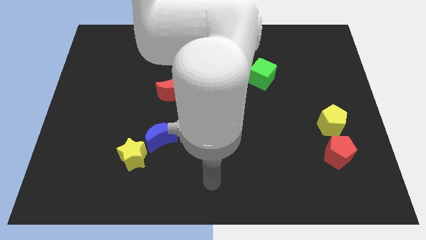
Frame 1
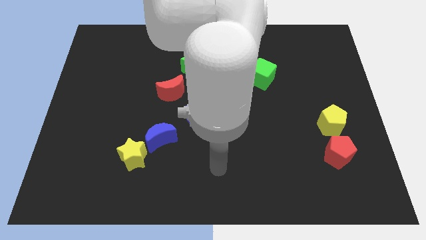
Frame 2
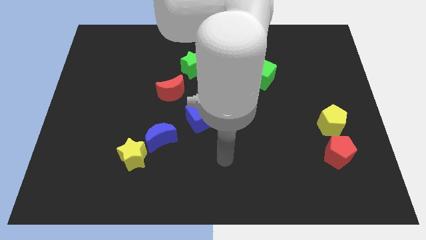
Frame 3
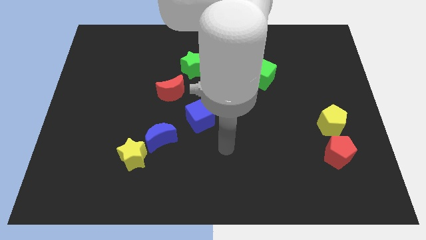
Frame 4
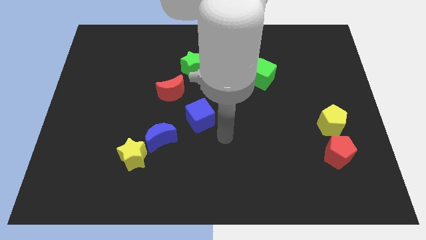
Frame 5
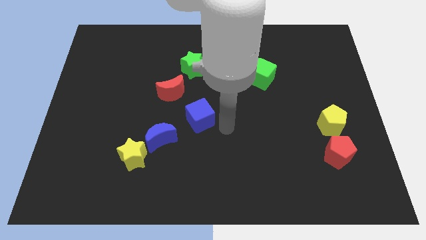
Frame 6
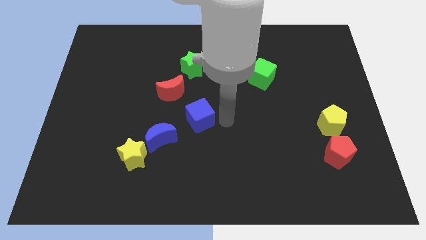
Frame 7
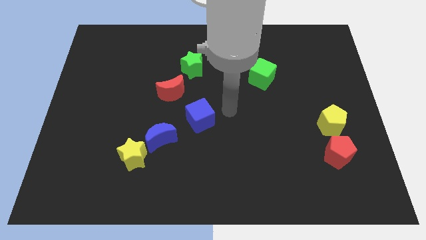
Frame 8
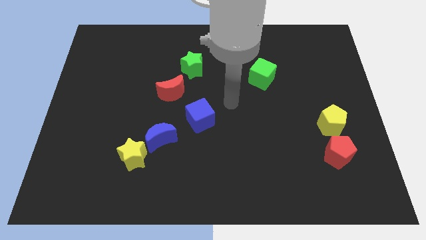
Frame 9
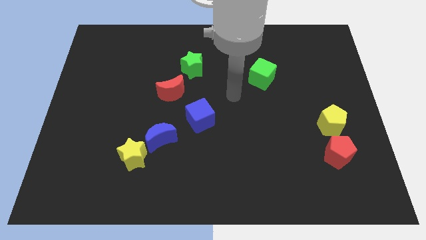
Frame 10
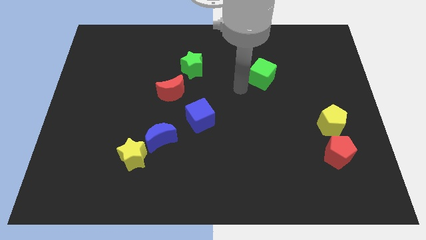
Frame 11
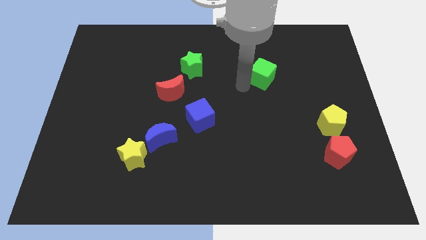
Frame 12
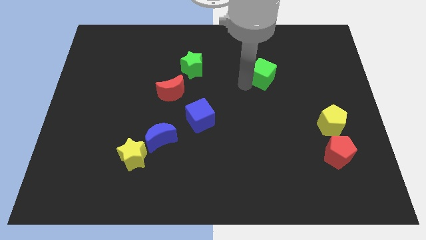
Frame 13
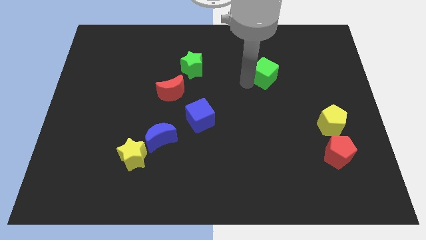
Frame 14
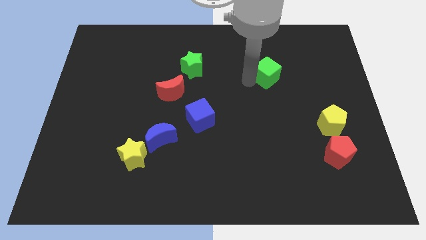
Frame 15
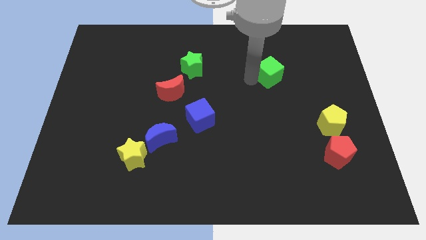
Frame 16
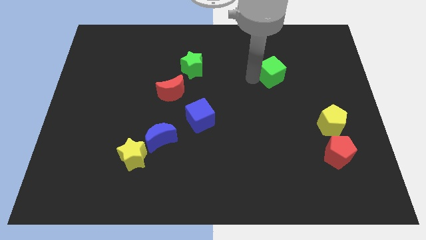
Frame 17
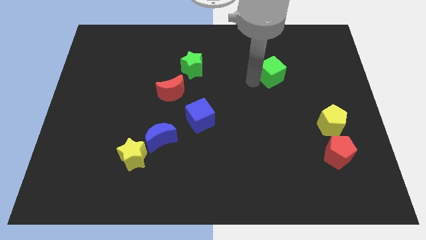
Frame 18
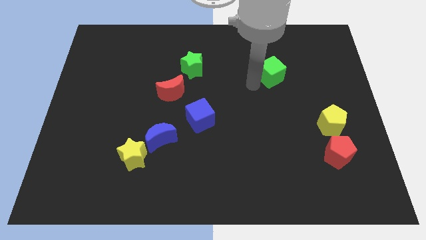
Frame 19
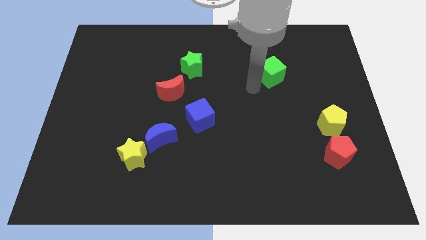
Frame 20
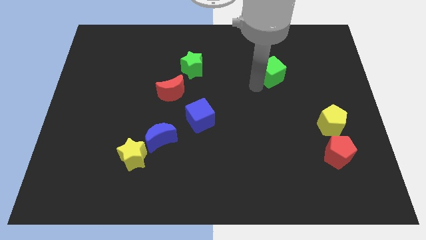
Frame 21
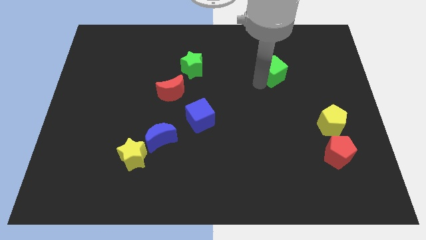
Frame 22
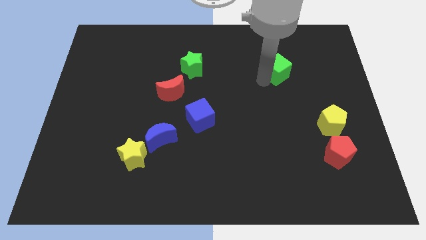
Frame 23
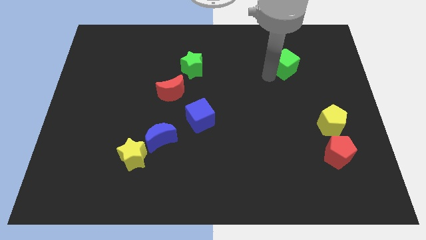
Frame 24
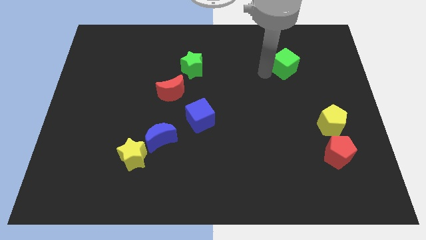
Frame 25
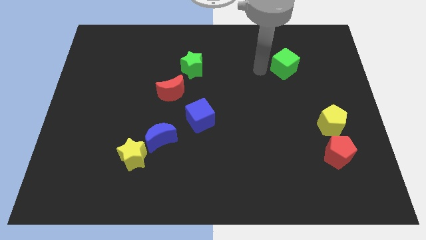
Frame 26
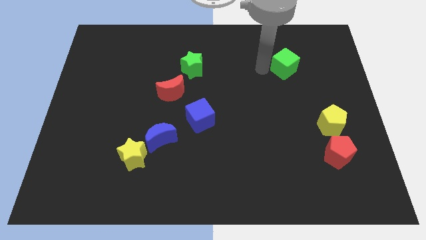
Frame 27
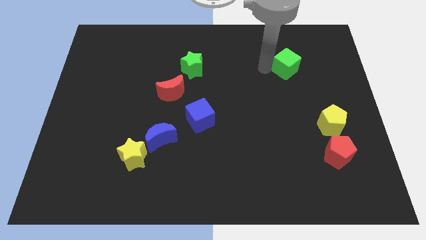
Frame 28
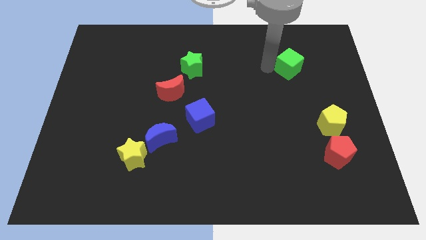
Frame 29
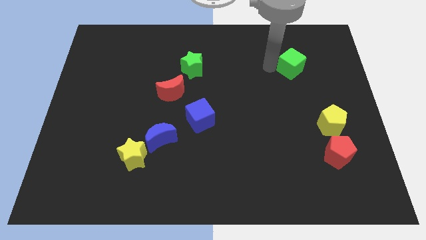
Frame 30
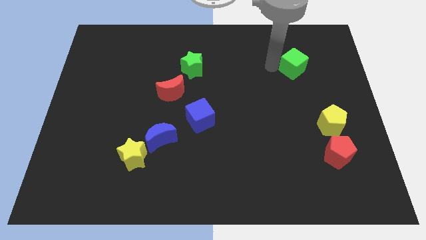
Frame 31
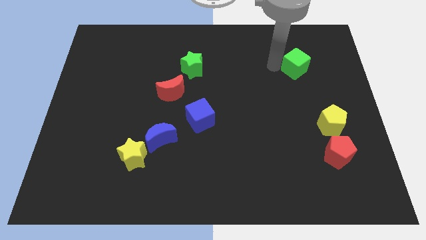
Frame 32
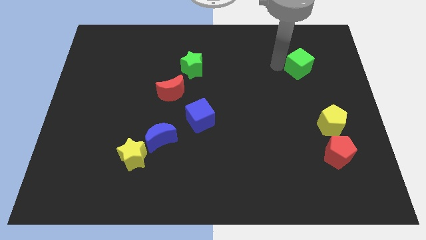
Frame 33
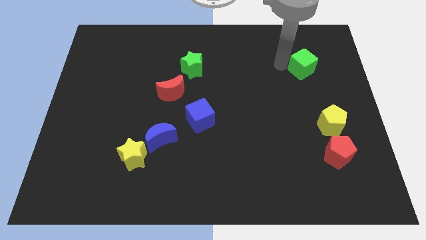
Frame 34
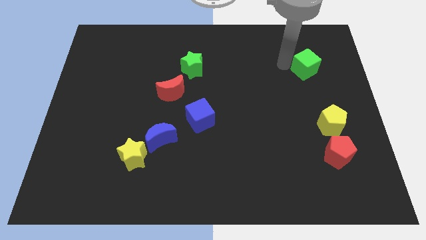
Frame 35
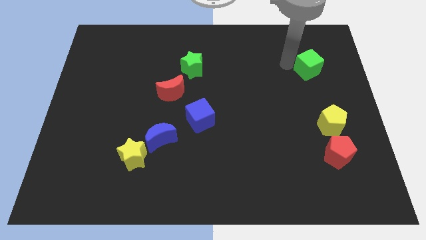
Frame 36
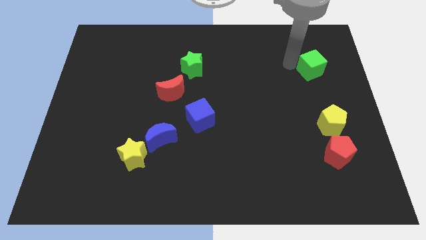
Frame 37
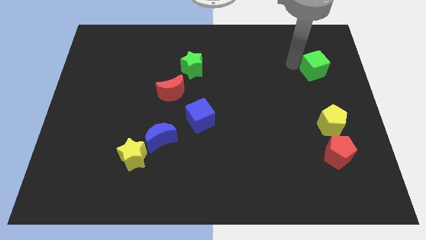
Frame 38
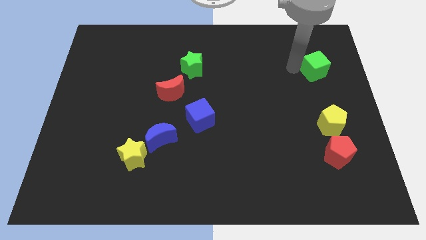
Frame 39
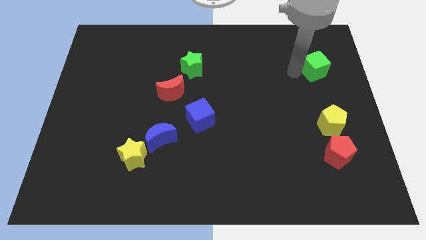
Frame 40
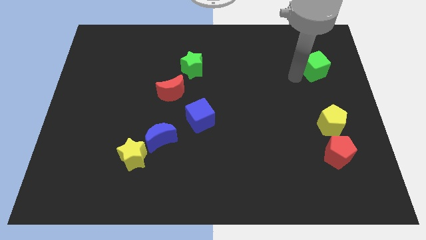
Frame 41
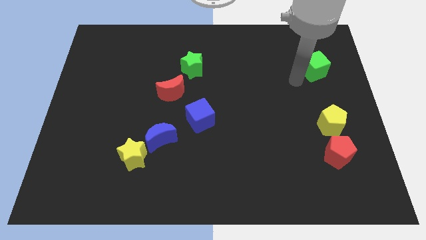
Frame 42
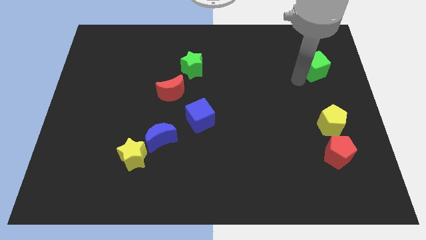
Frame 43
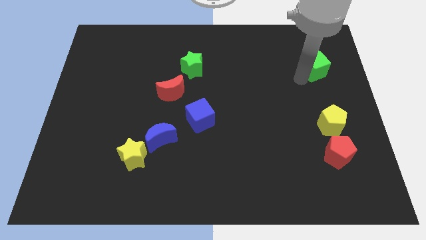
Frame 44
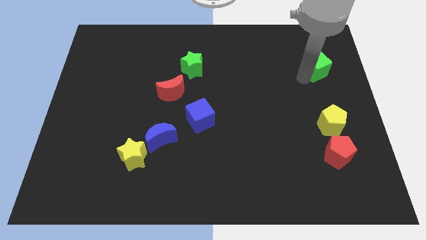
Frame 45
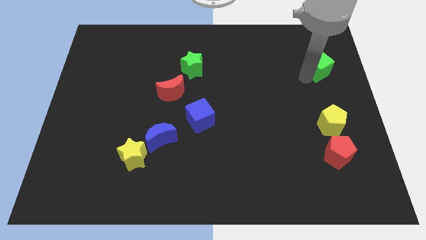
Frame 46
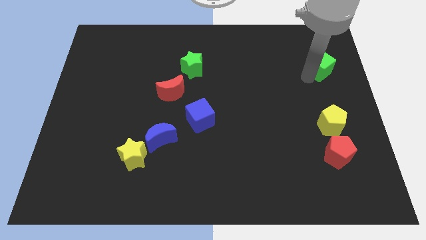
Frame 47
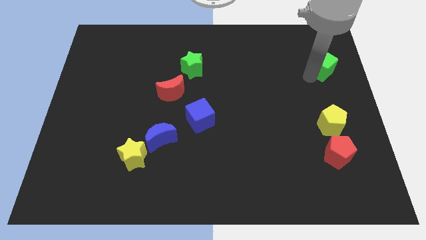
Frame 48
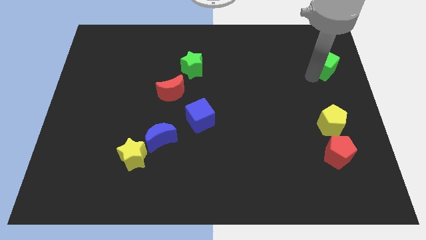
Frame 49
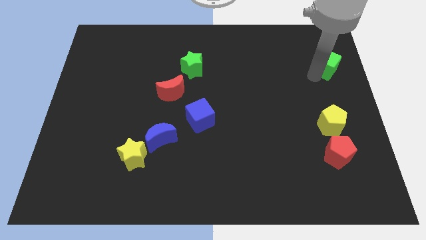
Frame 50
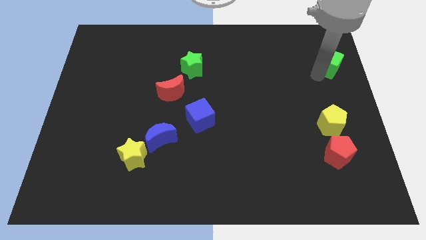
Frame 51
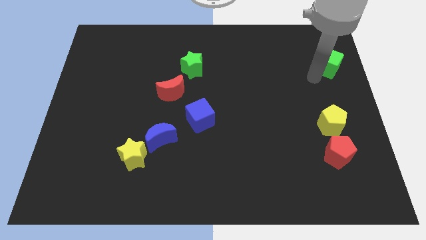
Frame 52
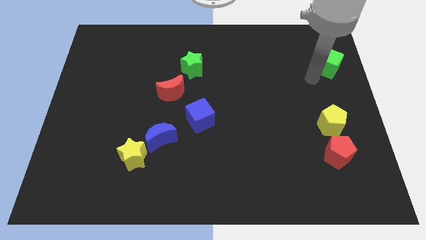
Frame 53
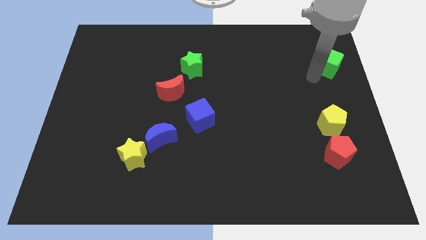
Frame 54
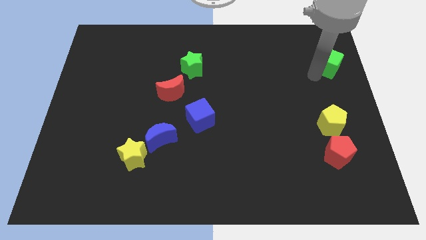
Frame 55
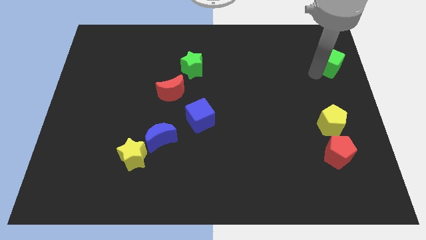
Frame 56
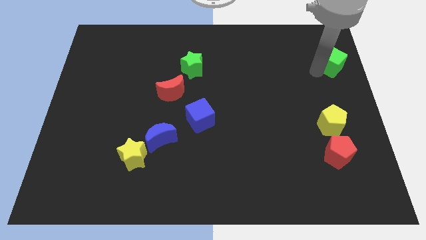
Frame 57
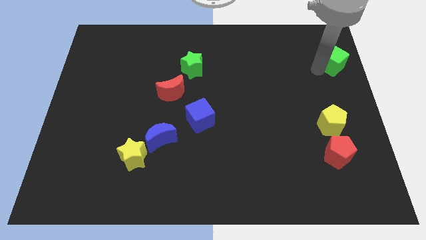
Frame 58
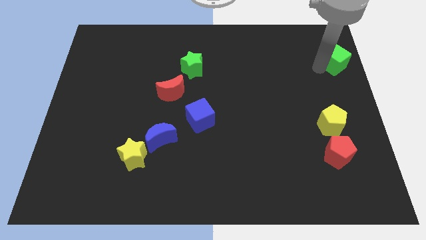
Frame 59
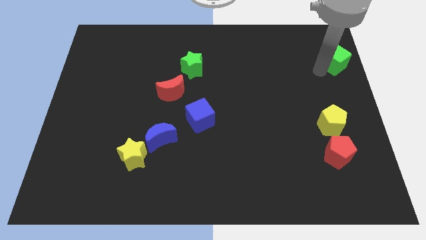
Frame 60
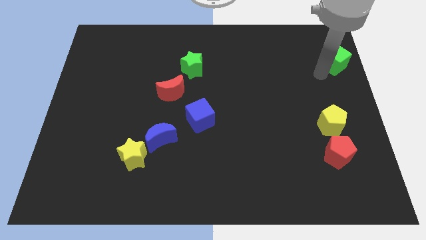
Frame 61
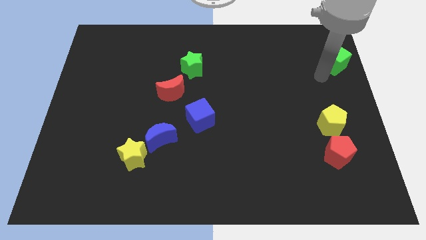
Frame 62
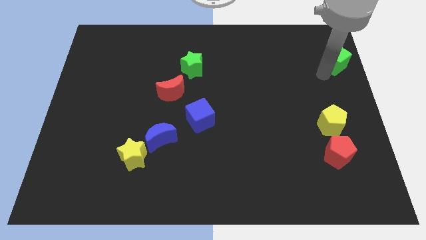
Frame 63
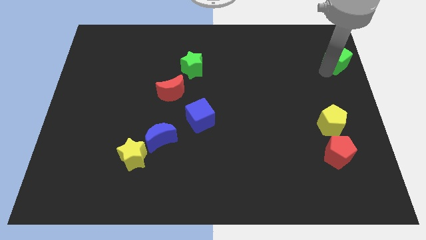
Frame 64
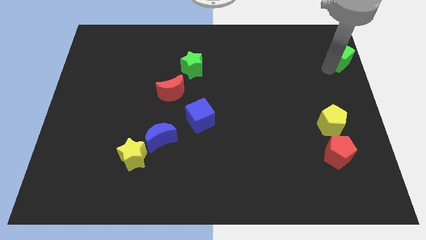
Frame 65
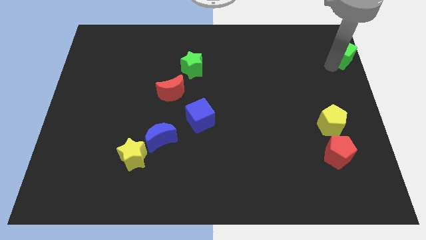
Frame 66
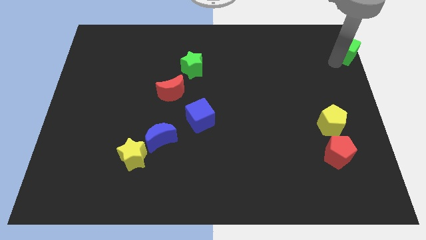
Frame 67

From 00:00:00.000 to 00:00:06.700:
move the green cube to the top right of the board
